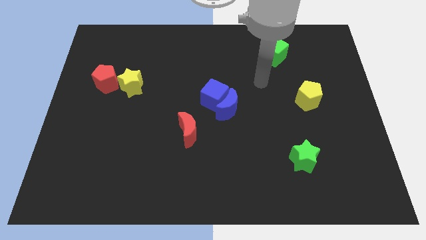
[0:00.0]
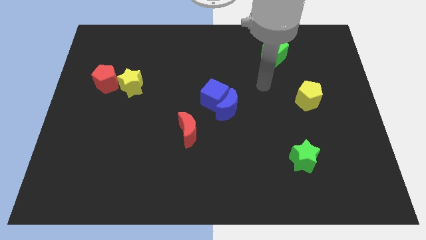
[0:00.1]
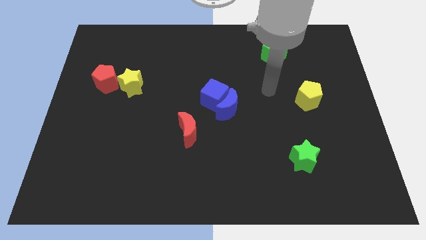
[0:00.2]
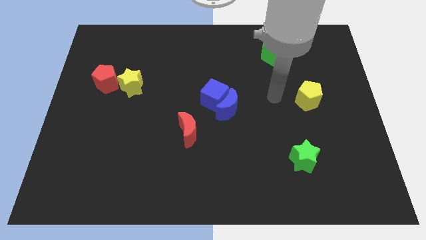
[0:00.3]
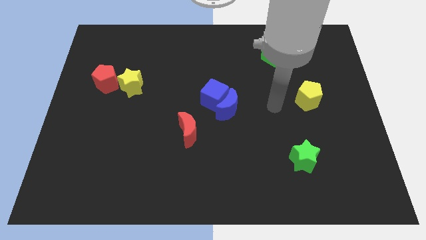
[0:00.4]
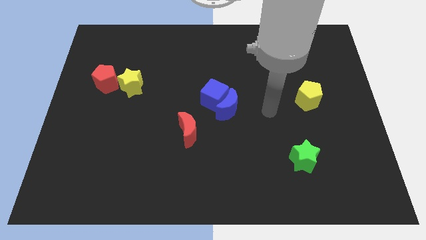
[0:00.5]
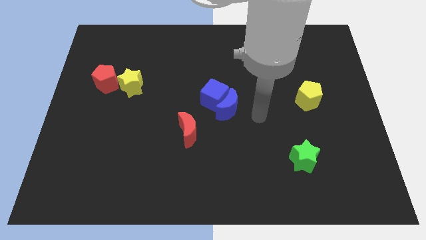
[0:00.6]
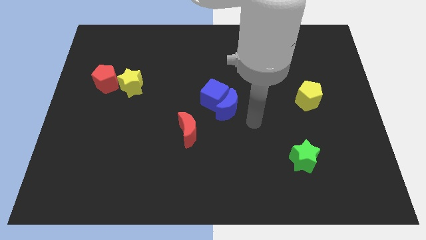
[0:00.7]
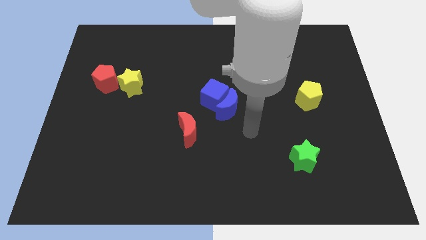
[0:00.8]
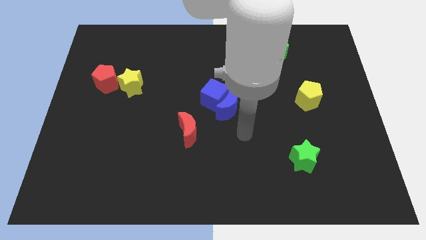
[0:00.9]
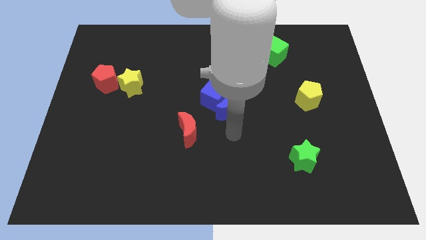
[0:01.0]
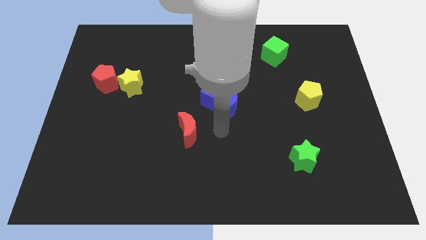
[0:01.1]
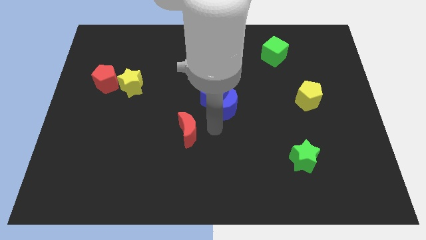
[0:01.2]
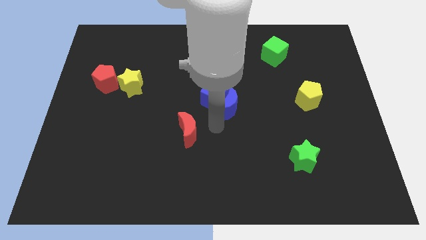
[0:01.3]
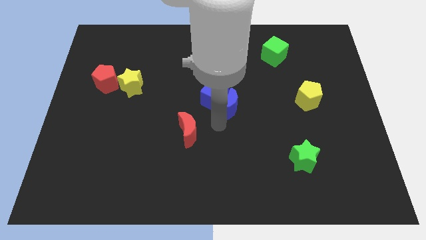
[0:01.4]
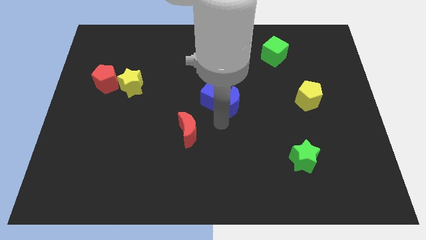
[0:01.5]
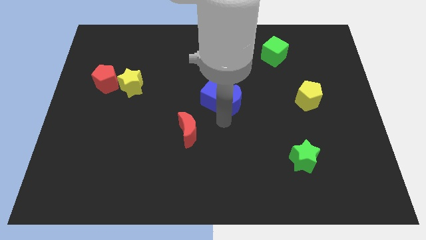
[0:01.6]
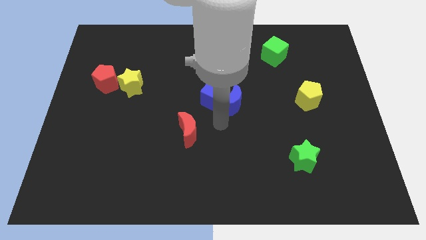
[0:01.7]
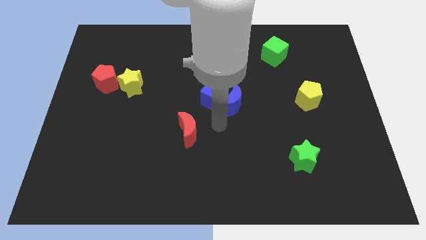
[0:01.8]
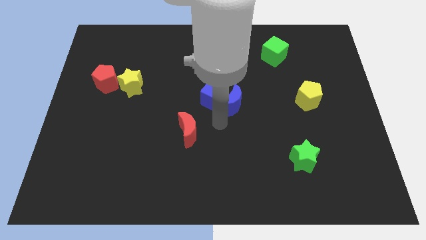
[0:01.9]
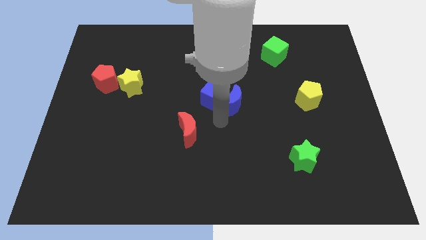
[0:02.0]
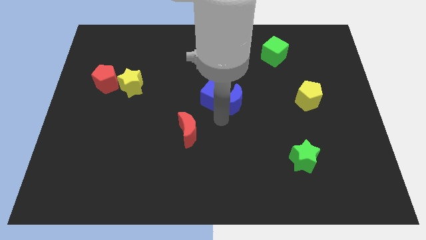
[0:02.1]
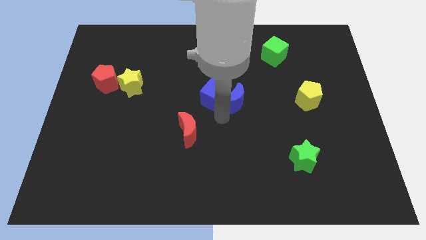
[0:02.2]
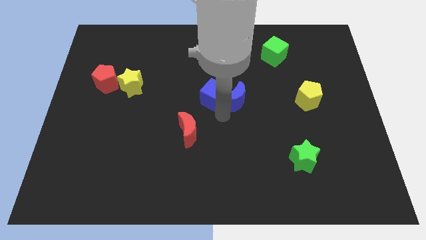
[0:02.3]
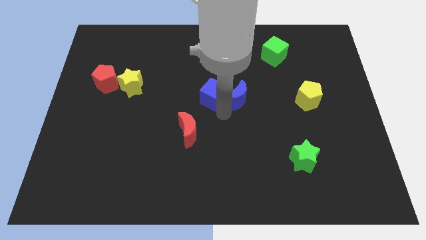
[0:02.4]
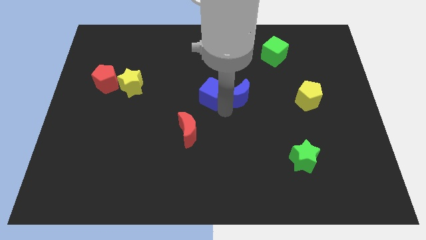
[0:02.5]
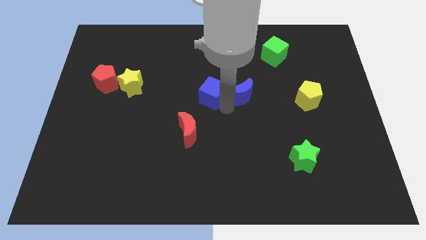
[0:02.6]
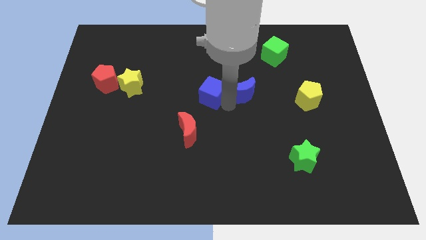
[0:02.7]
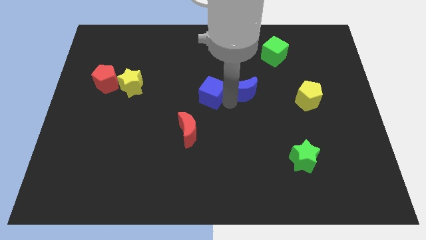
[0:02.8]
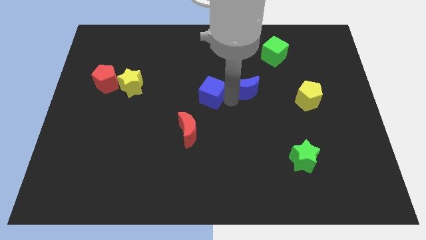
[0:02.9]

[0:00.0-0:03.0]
slightly move the blue moon diagonally upwards and right

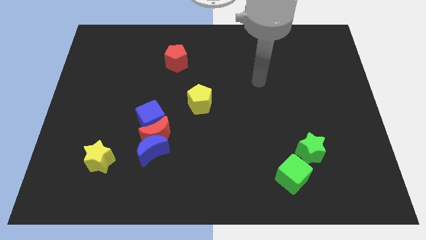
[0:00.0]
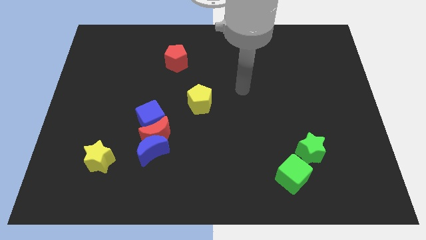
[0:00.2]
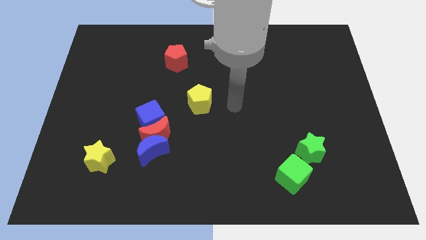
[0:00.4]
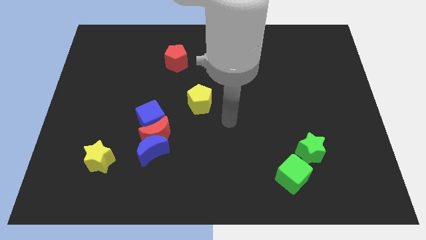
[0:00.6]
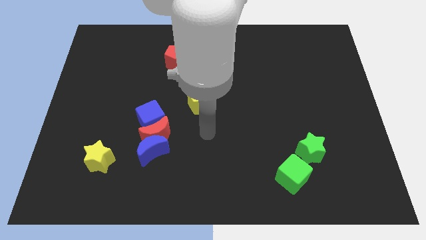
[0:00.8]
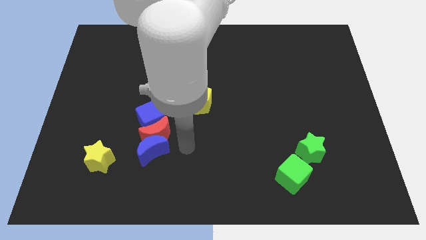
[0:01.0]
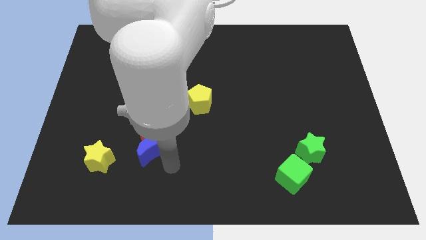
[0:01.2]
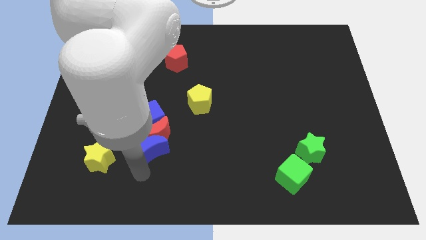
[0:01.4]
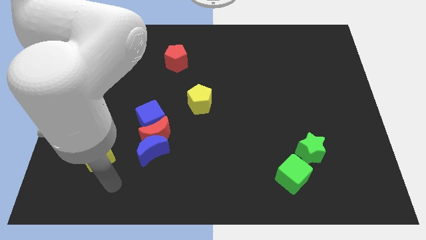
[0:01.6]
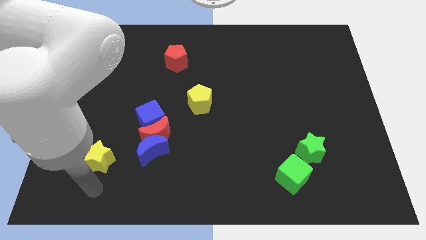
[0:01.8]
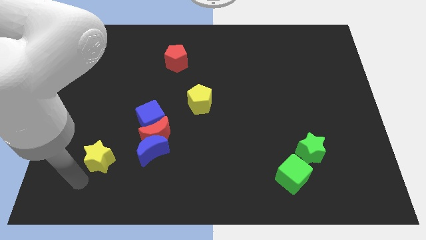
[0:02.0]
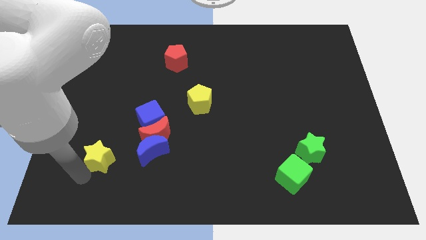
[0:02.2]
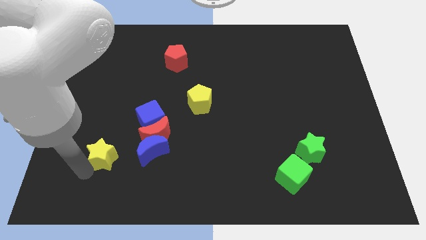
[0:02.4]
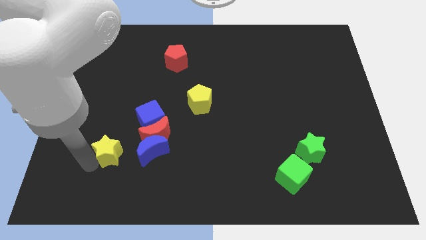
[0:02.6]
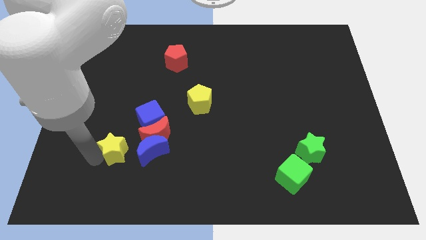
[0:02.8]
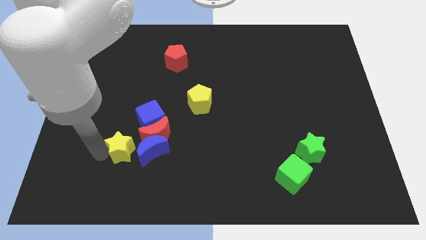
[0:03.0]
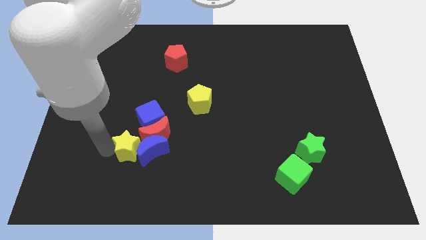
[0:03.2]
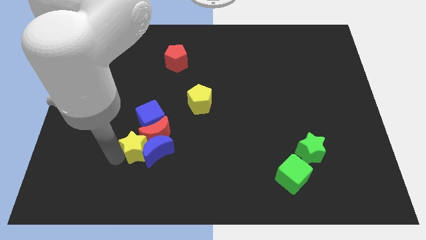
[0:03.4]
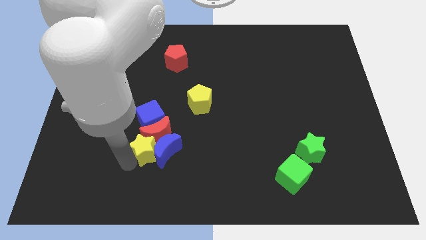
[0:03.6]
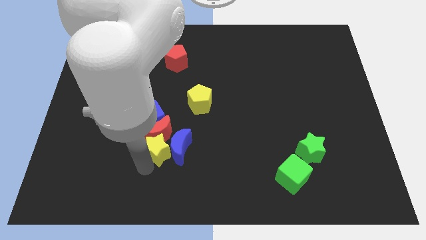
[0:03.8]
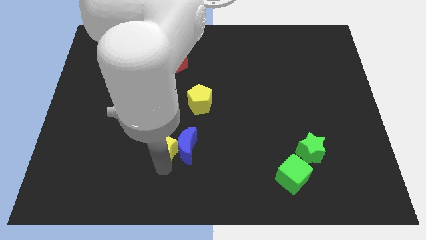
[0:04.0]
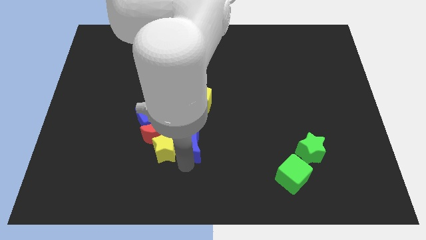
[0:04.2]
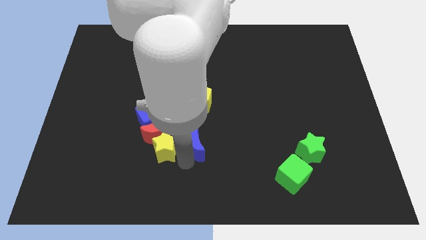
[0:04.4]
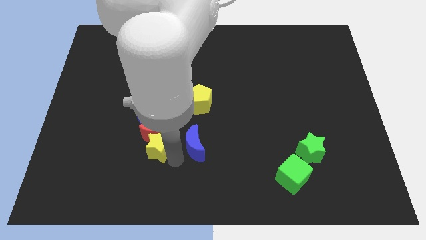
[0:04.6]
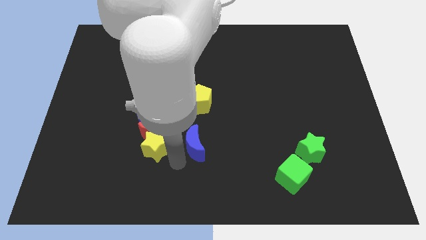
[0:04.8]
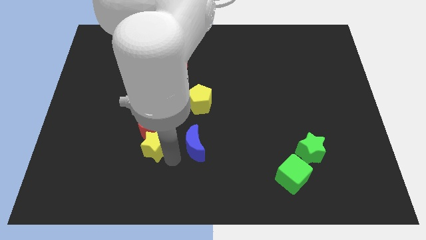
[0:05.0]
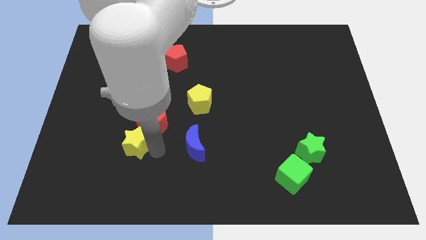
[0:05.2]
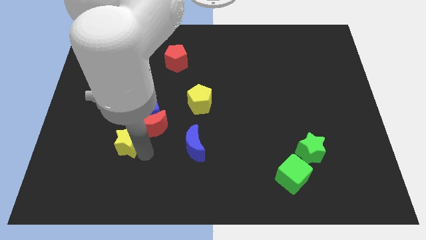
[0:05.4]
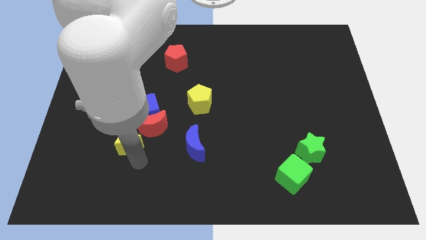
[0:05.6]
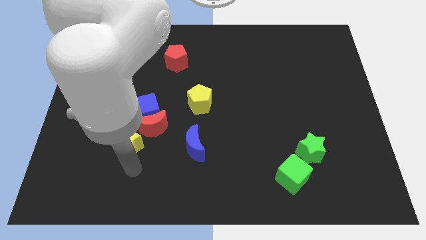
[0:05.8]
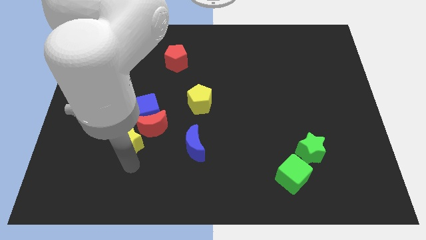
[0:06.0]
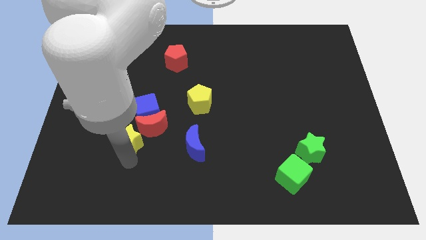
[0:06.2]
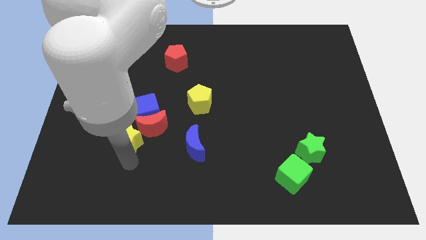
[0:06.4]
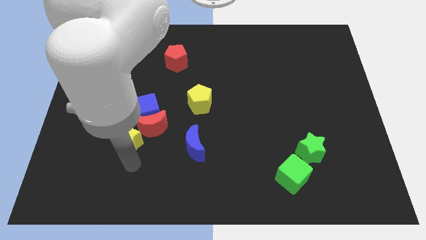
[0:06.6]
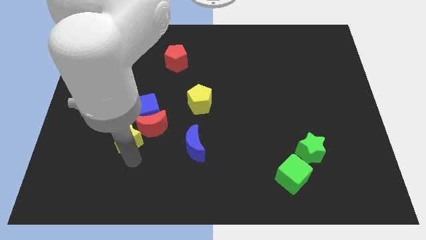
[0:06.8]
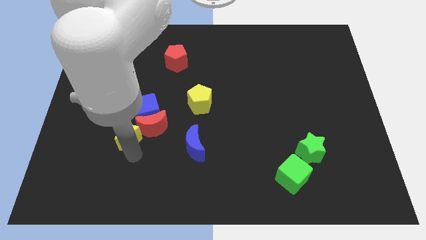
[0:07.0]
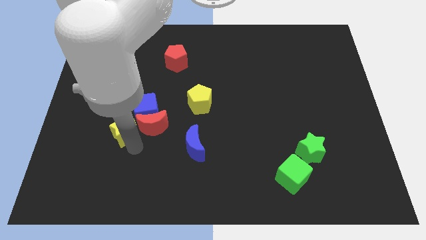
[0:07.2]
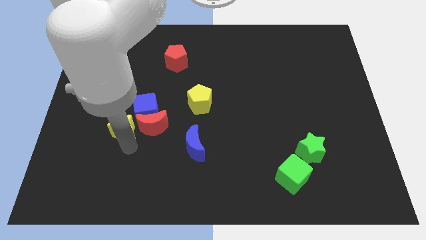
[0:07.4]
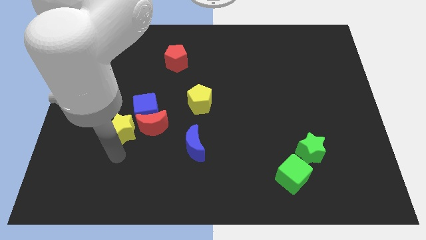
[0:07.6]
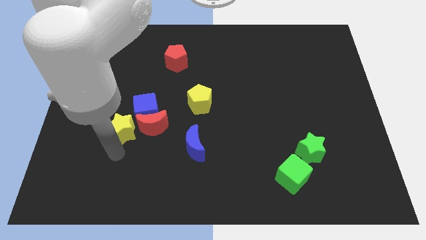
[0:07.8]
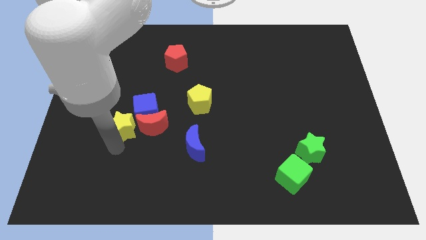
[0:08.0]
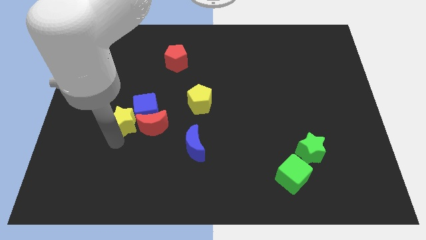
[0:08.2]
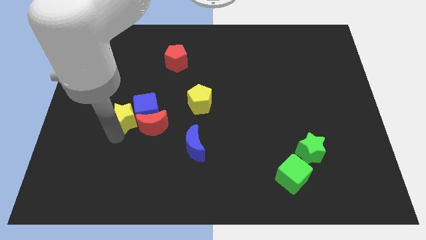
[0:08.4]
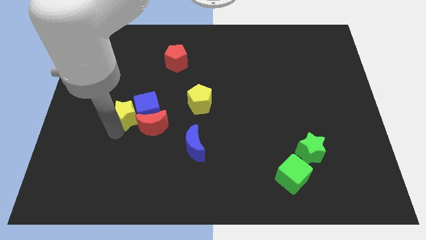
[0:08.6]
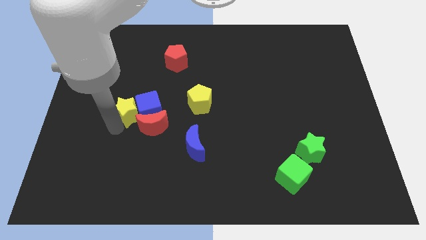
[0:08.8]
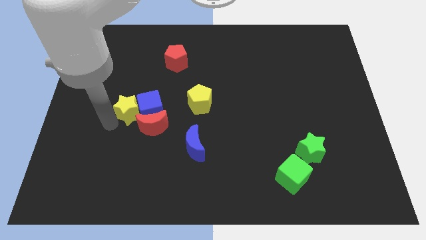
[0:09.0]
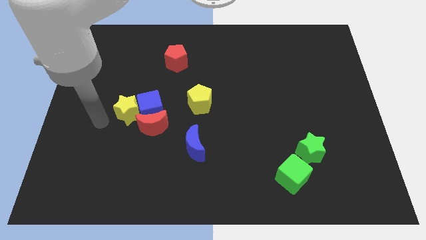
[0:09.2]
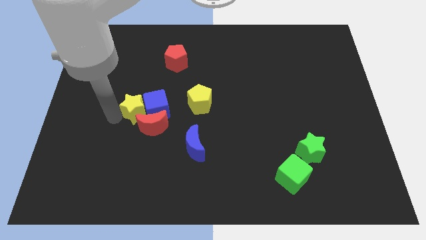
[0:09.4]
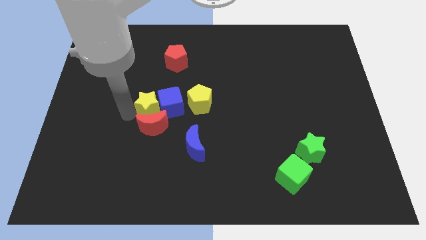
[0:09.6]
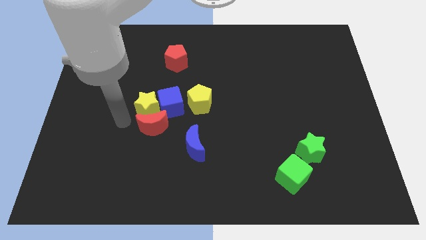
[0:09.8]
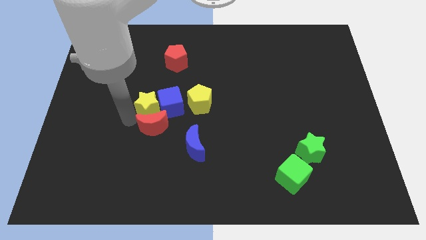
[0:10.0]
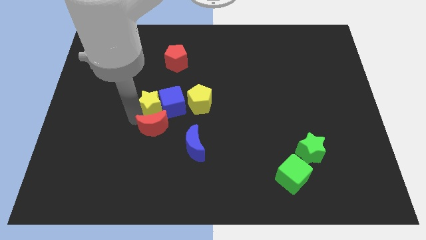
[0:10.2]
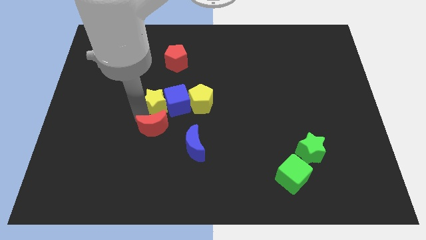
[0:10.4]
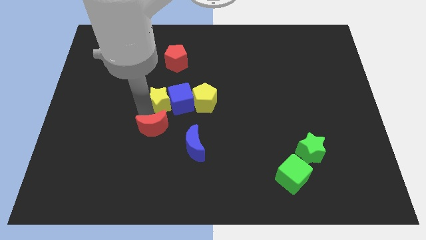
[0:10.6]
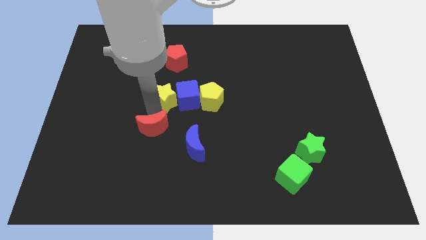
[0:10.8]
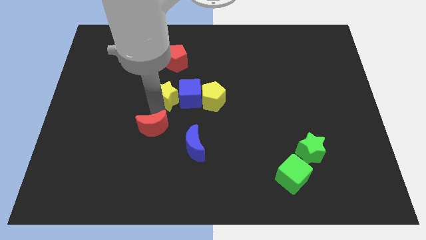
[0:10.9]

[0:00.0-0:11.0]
push the yellow star upwards and then to the right
